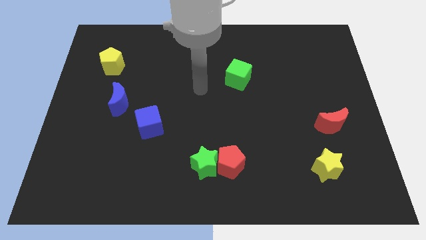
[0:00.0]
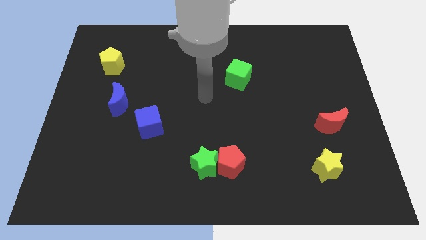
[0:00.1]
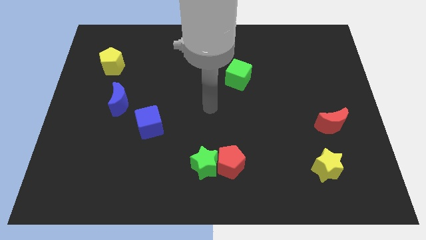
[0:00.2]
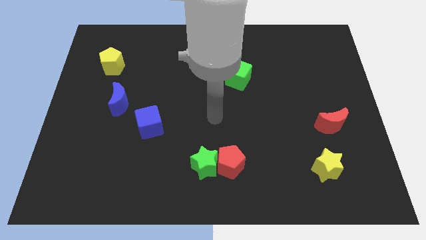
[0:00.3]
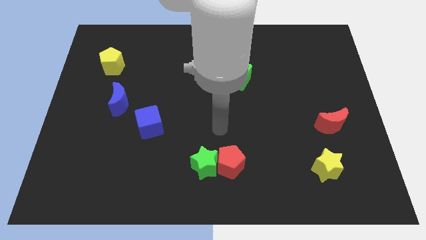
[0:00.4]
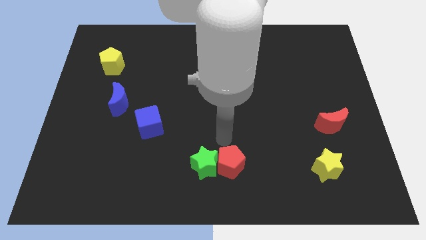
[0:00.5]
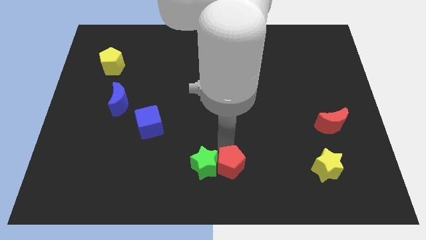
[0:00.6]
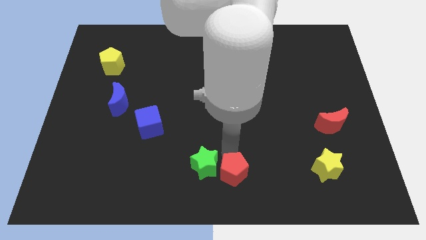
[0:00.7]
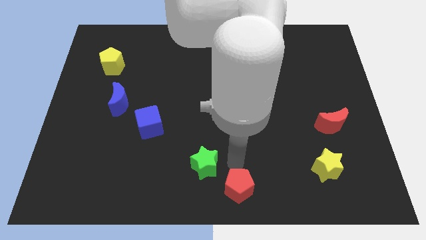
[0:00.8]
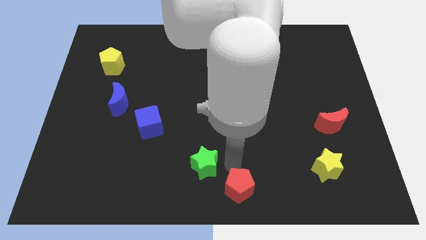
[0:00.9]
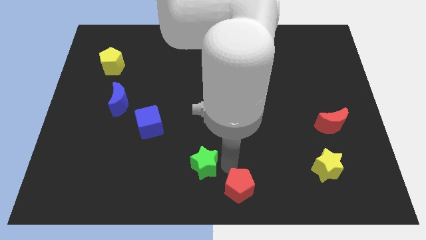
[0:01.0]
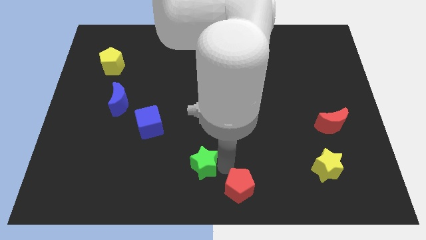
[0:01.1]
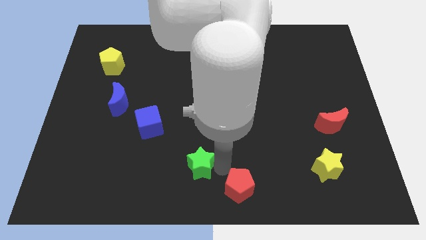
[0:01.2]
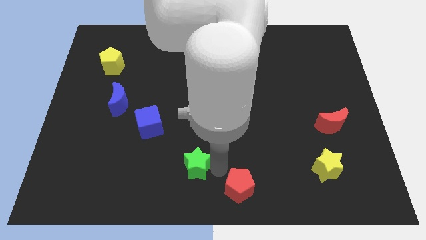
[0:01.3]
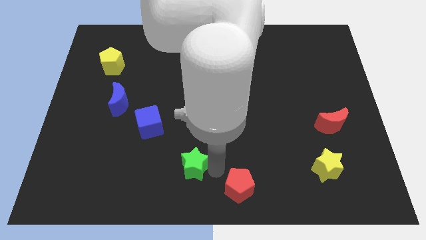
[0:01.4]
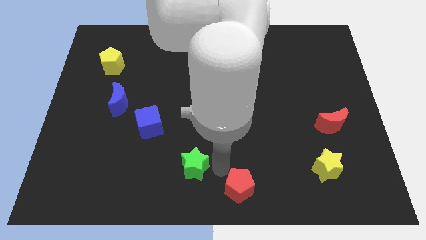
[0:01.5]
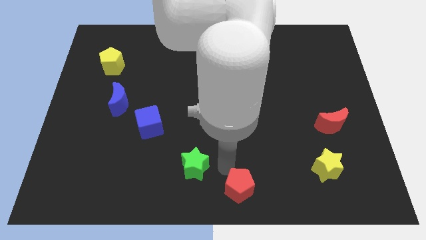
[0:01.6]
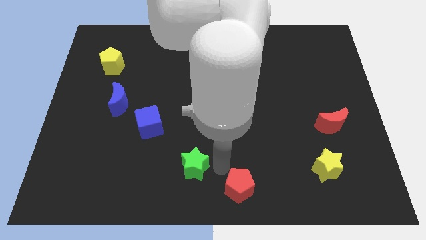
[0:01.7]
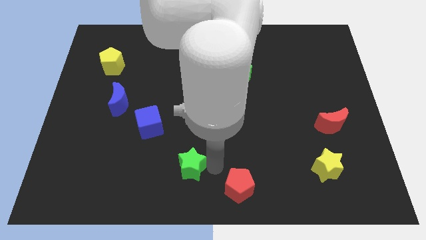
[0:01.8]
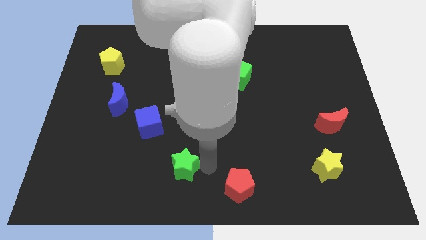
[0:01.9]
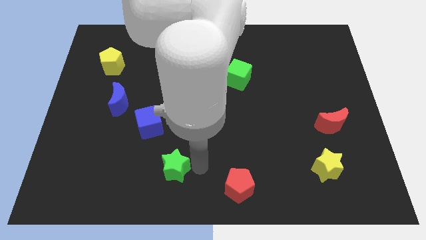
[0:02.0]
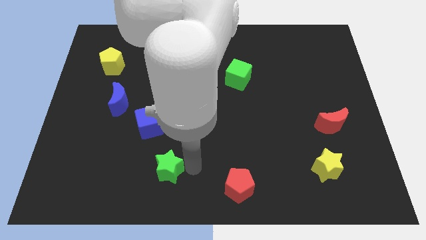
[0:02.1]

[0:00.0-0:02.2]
slightly move the green star to the left

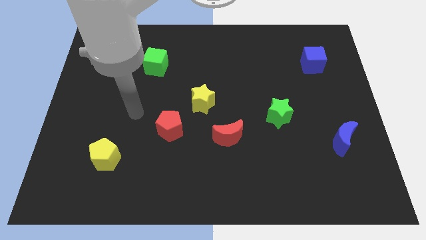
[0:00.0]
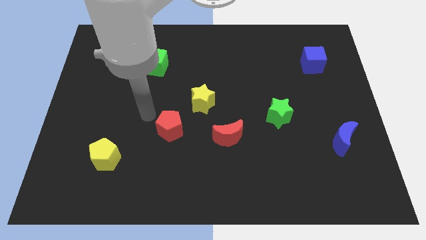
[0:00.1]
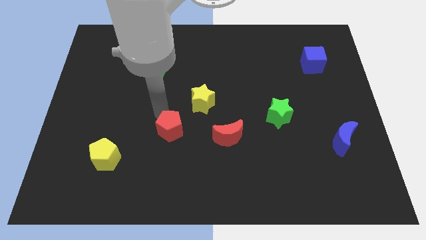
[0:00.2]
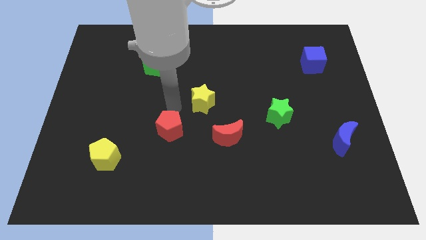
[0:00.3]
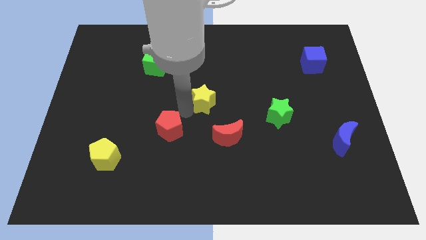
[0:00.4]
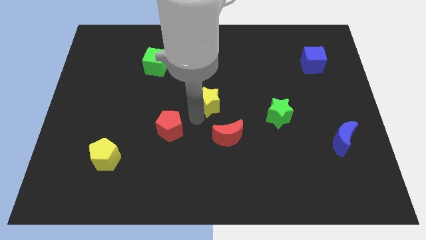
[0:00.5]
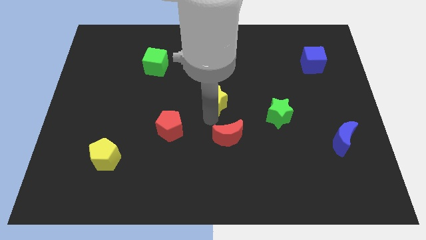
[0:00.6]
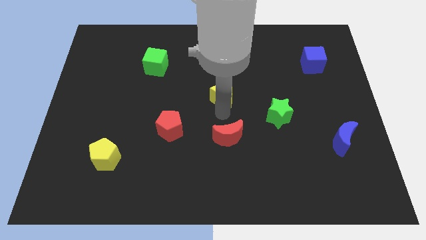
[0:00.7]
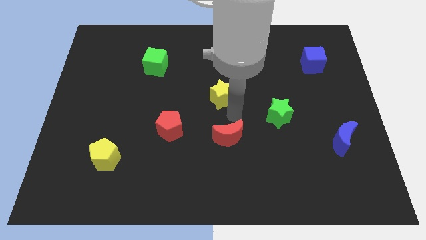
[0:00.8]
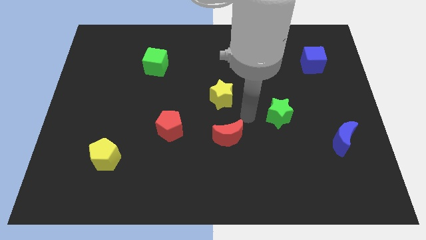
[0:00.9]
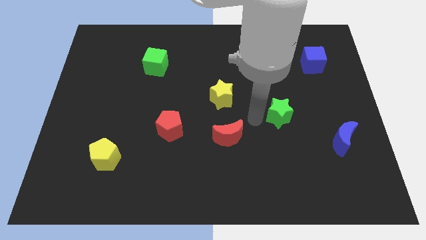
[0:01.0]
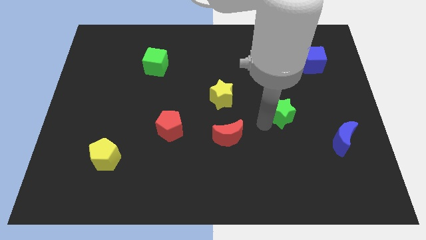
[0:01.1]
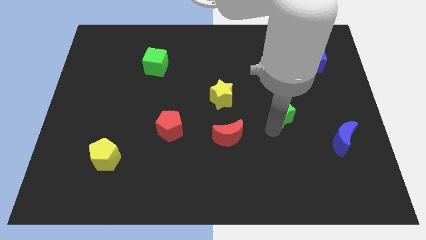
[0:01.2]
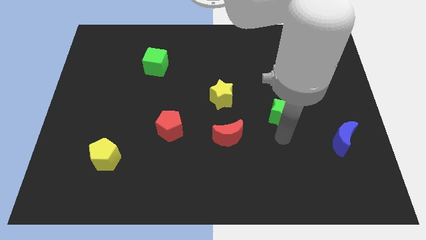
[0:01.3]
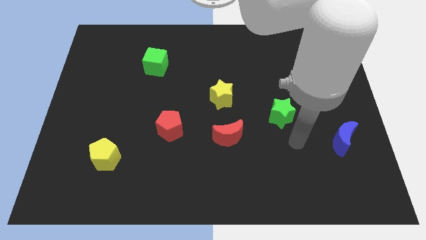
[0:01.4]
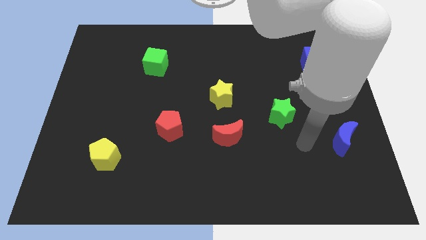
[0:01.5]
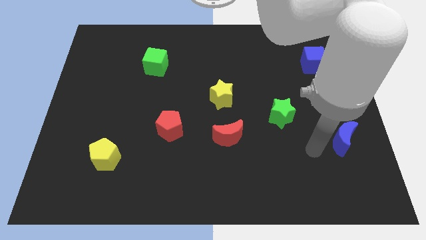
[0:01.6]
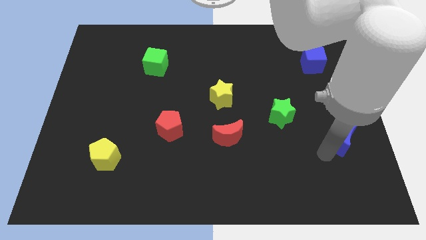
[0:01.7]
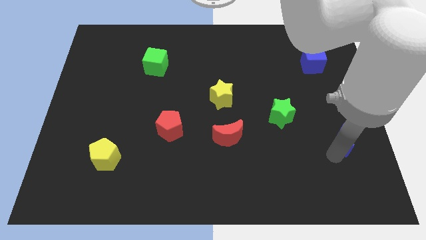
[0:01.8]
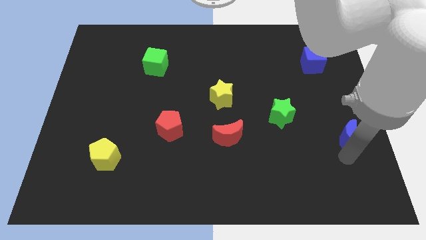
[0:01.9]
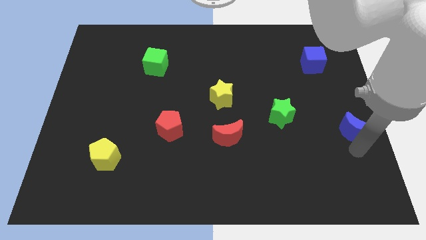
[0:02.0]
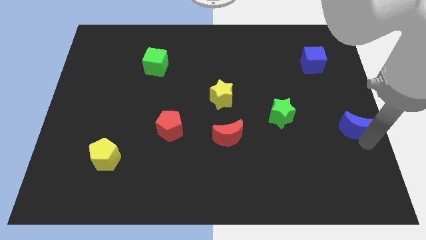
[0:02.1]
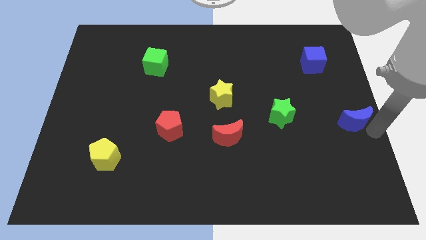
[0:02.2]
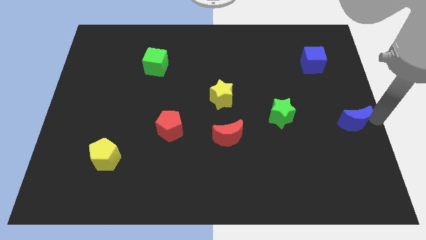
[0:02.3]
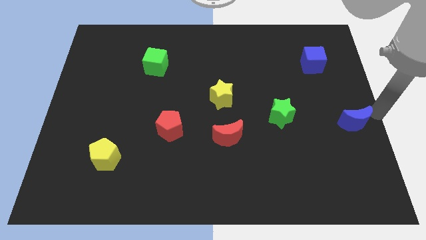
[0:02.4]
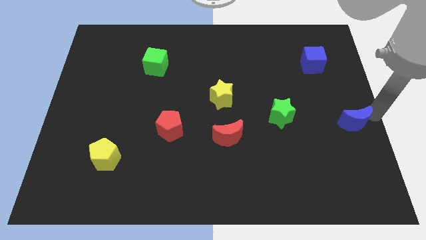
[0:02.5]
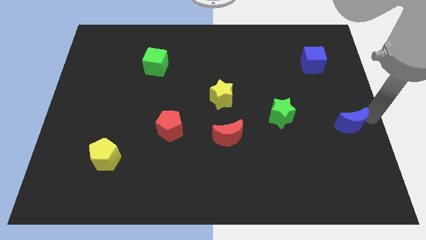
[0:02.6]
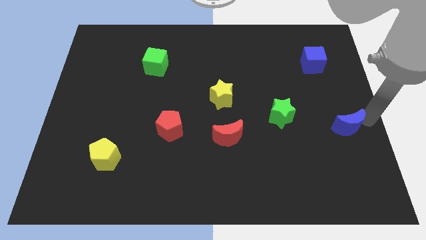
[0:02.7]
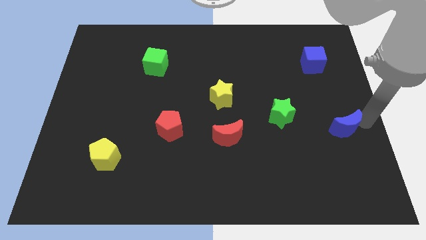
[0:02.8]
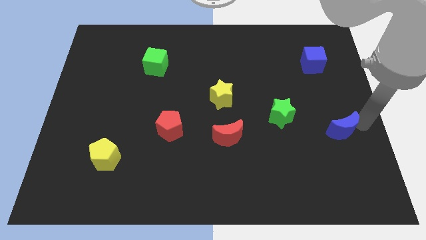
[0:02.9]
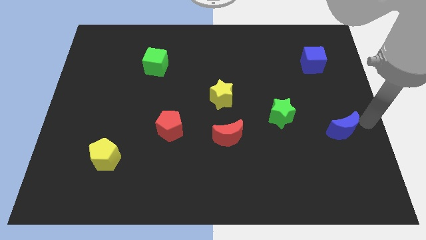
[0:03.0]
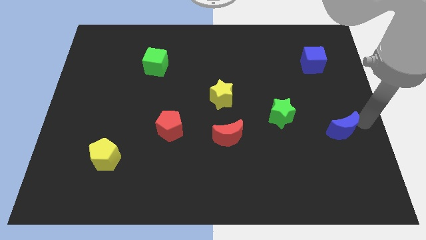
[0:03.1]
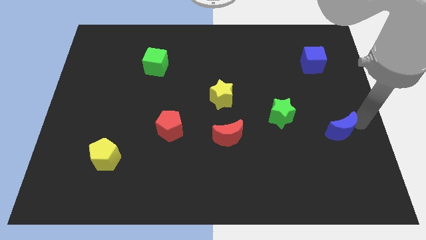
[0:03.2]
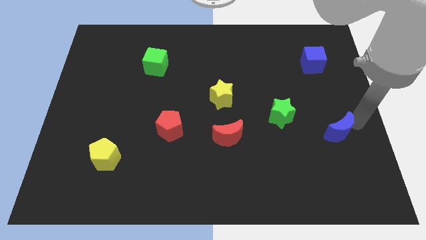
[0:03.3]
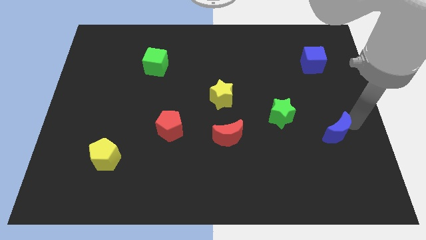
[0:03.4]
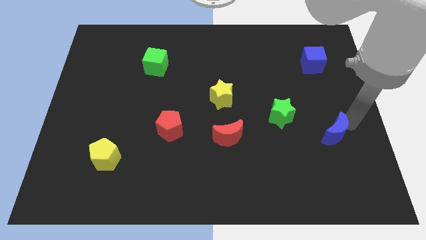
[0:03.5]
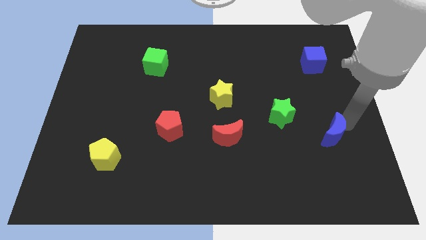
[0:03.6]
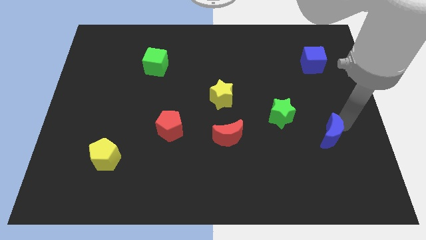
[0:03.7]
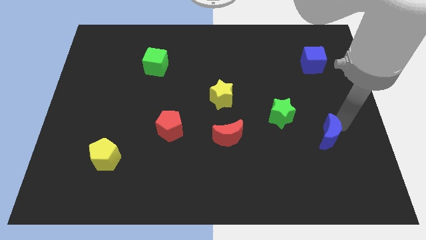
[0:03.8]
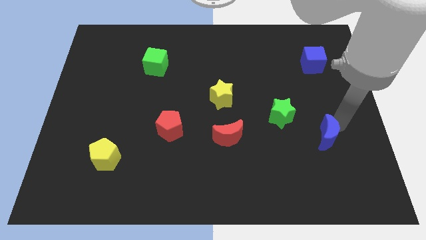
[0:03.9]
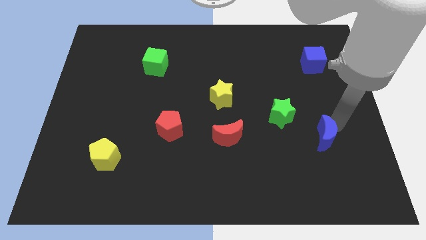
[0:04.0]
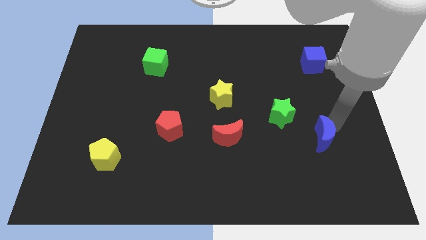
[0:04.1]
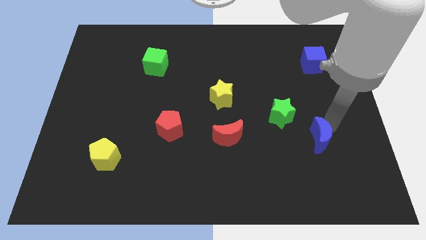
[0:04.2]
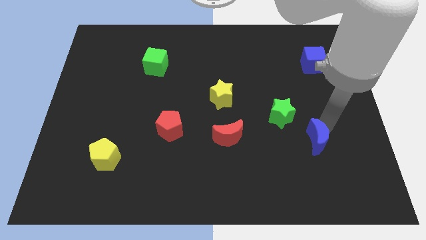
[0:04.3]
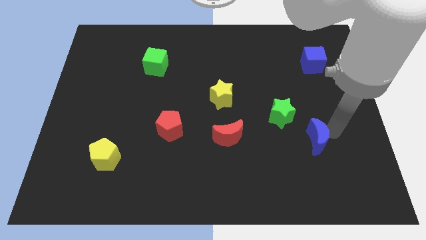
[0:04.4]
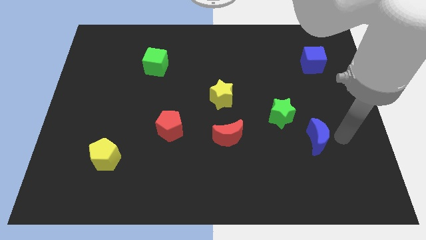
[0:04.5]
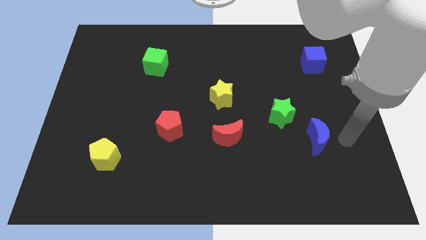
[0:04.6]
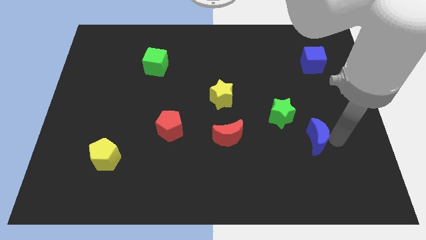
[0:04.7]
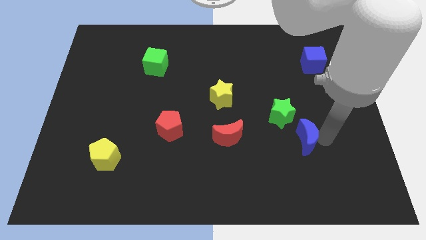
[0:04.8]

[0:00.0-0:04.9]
slightly slide the blue moon left

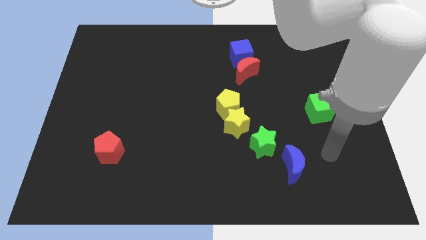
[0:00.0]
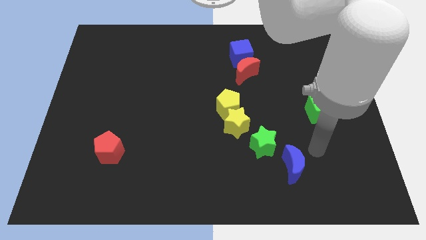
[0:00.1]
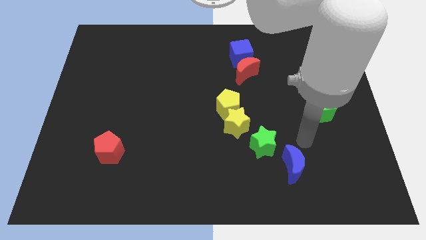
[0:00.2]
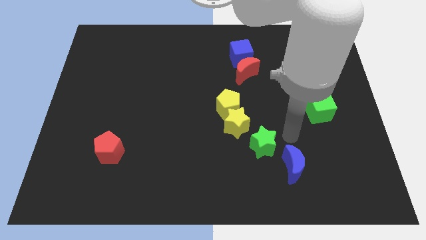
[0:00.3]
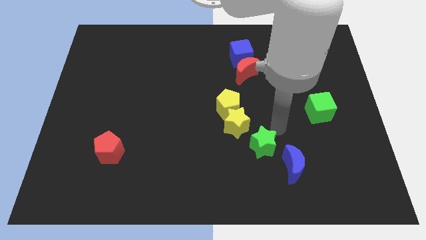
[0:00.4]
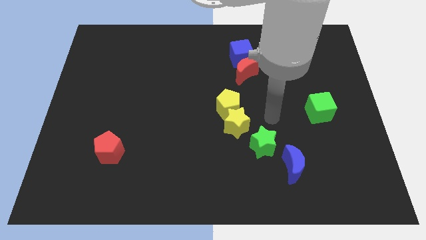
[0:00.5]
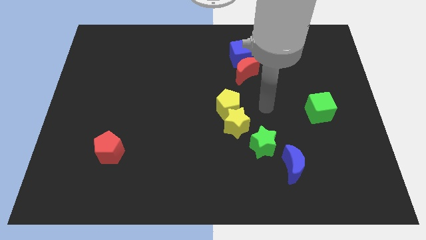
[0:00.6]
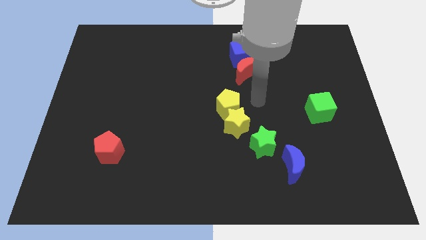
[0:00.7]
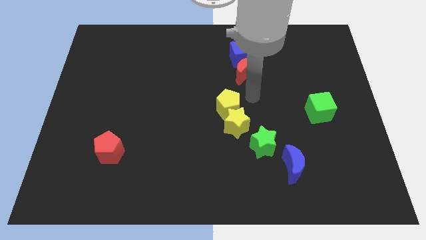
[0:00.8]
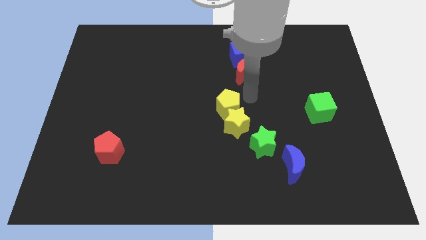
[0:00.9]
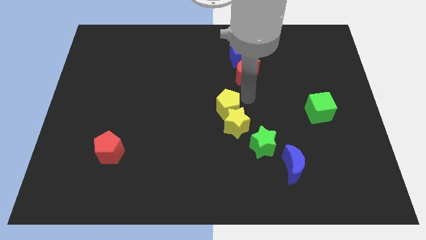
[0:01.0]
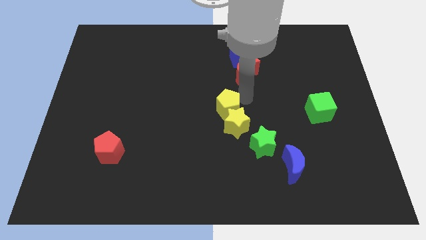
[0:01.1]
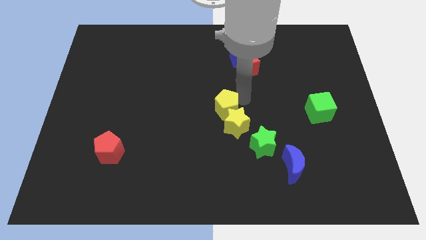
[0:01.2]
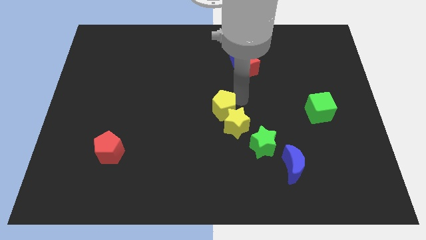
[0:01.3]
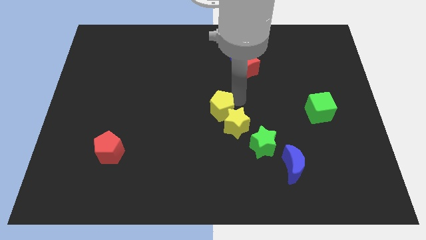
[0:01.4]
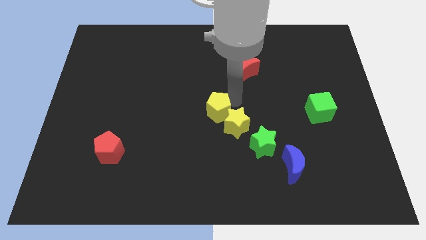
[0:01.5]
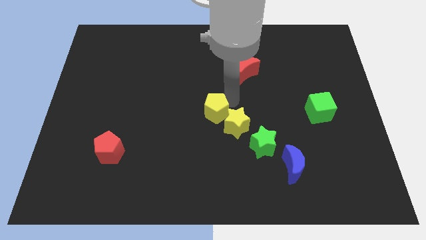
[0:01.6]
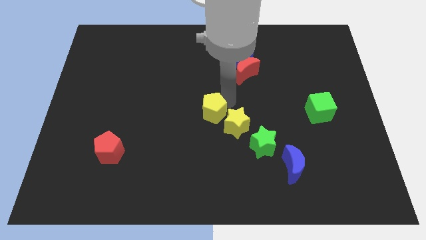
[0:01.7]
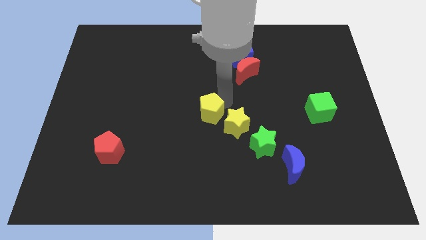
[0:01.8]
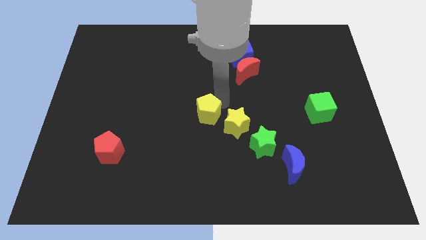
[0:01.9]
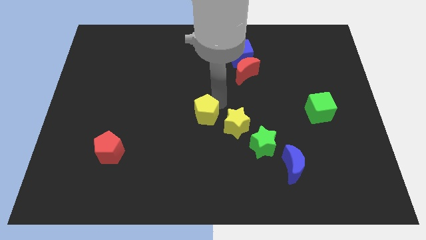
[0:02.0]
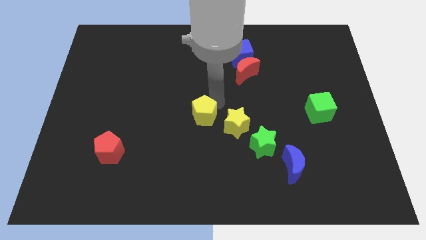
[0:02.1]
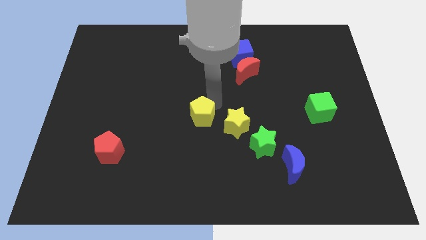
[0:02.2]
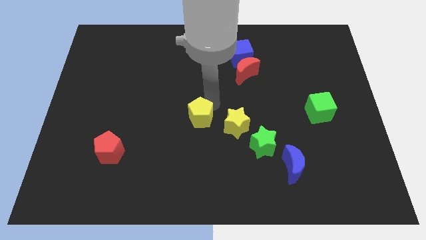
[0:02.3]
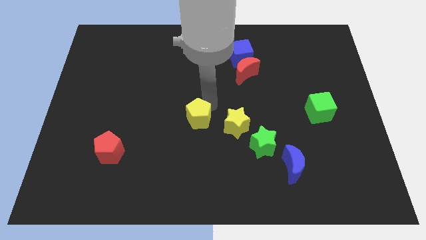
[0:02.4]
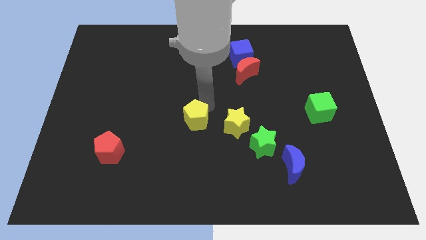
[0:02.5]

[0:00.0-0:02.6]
slightly push the yellow pentagon diagonally downwards and to the left
